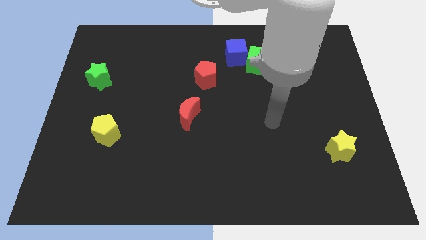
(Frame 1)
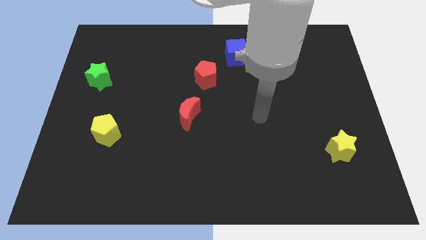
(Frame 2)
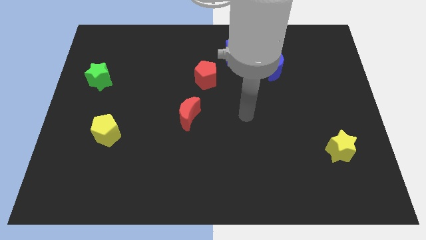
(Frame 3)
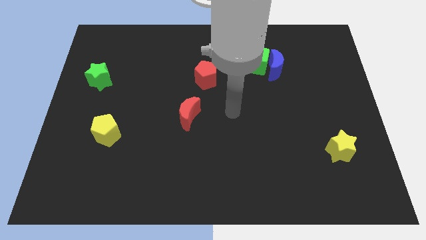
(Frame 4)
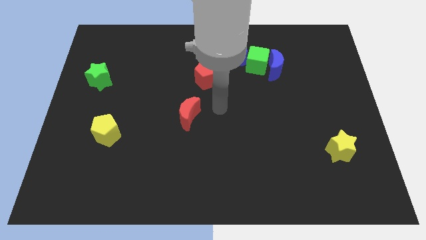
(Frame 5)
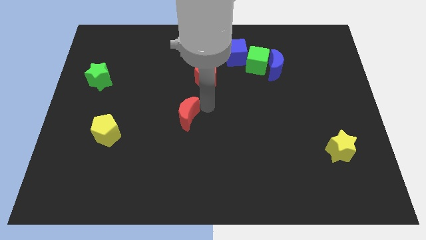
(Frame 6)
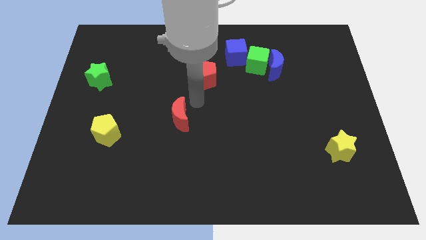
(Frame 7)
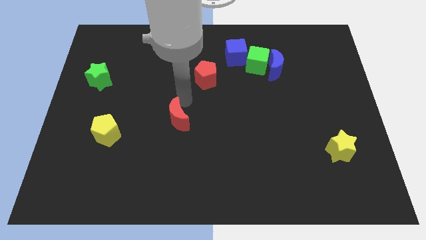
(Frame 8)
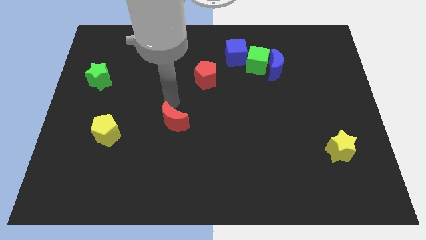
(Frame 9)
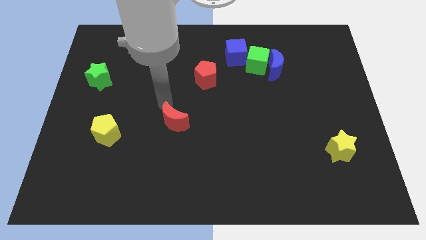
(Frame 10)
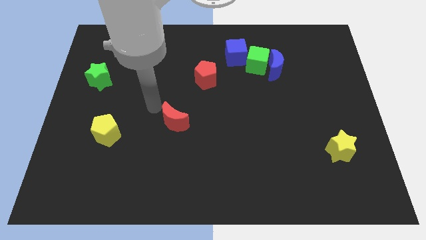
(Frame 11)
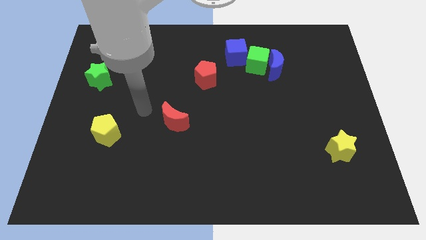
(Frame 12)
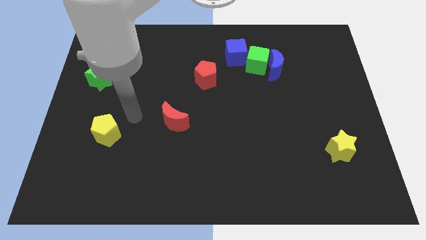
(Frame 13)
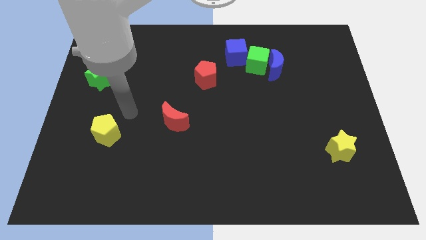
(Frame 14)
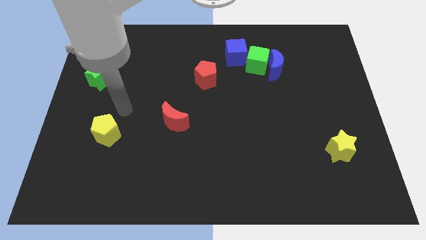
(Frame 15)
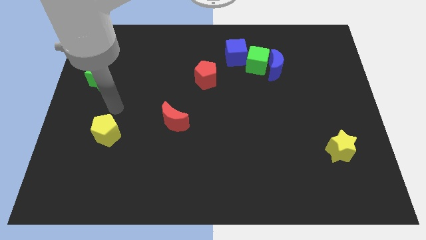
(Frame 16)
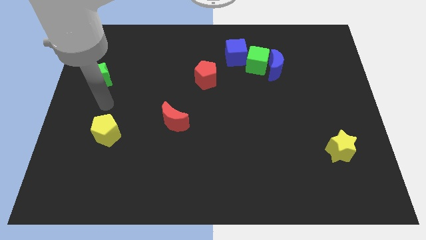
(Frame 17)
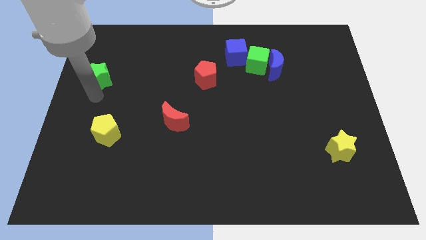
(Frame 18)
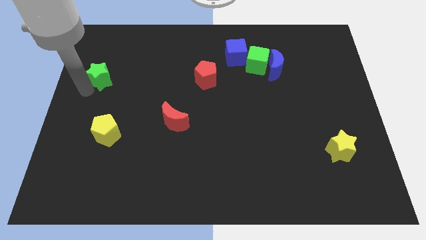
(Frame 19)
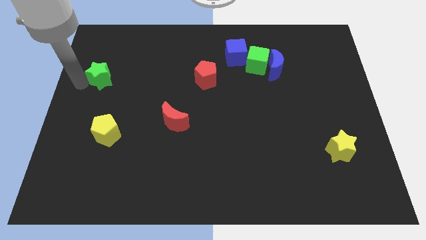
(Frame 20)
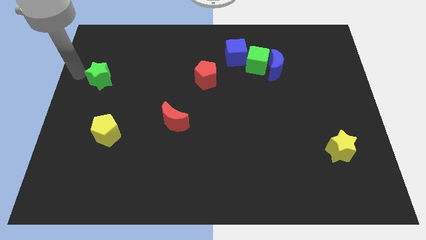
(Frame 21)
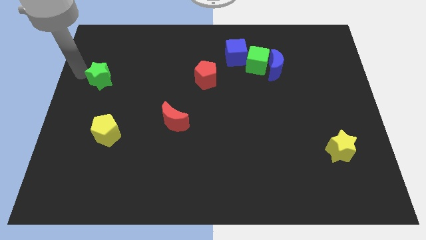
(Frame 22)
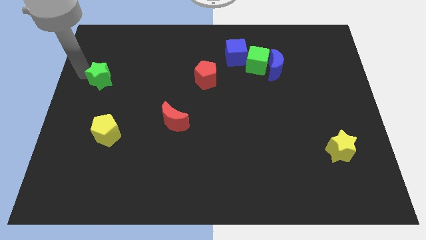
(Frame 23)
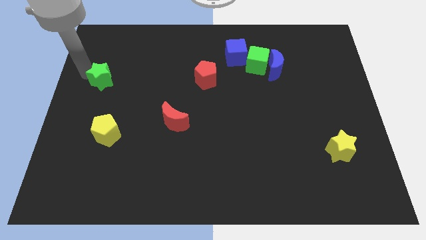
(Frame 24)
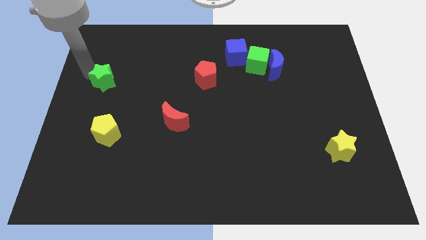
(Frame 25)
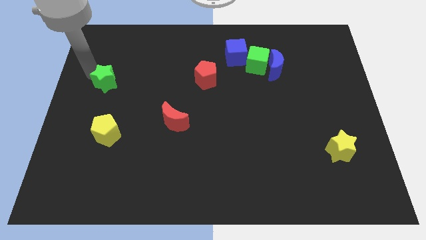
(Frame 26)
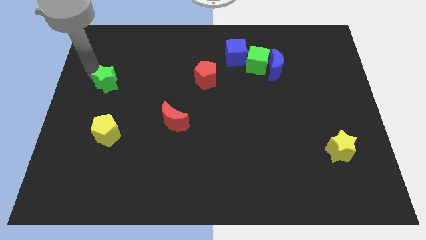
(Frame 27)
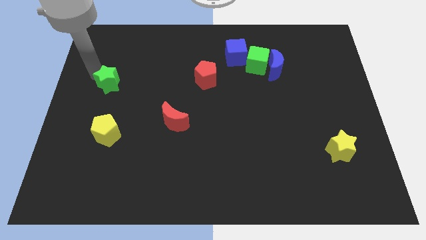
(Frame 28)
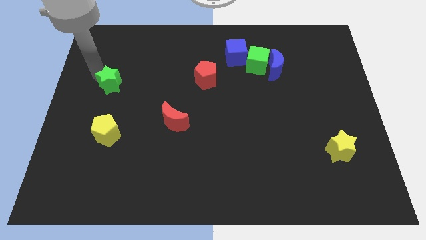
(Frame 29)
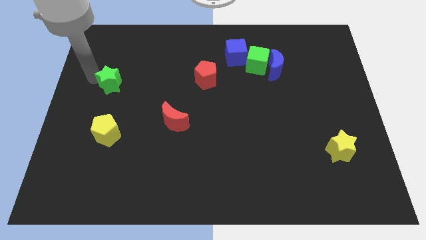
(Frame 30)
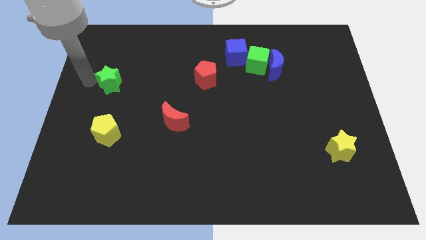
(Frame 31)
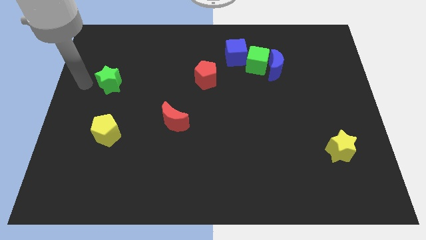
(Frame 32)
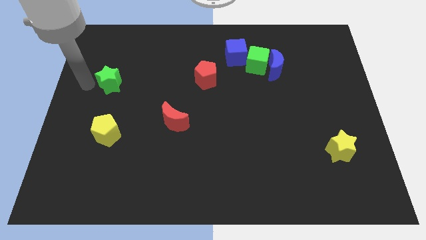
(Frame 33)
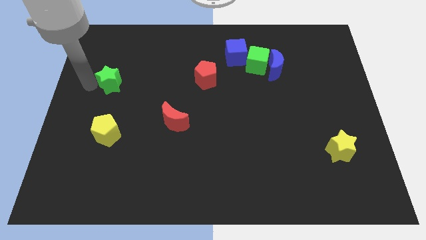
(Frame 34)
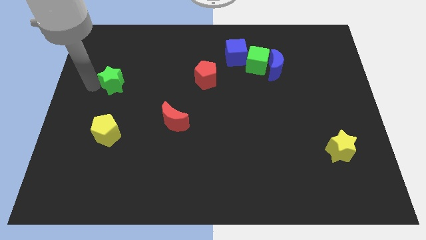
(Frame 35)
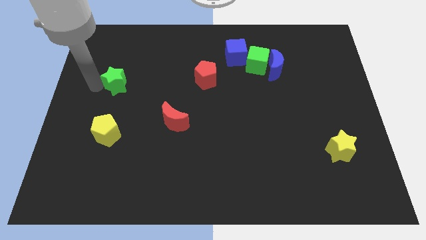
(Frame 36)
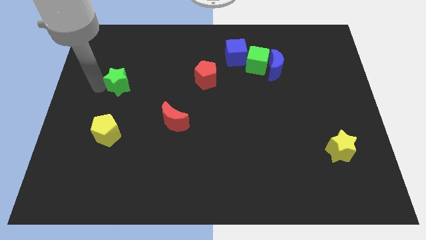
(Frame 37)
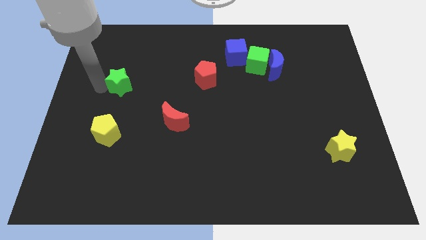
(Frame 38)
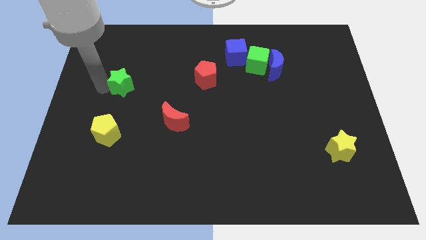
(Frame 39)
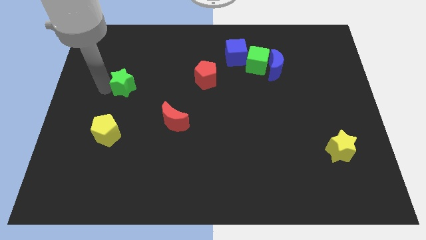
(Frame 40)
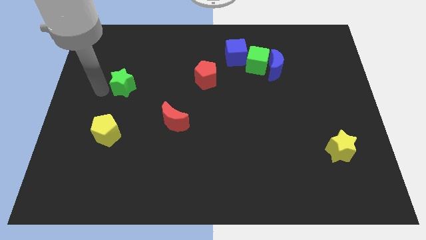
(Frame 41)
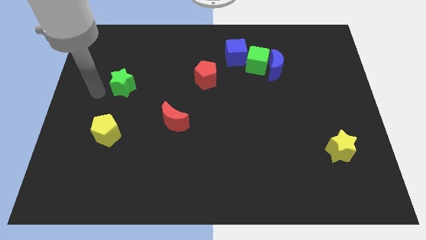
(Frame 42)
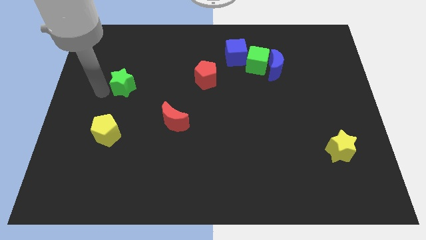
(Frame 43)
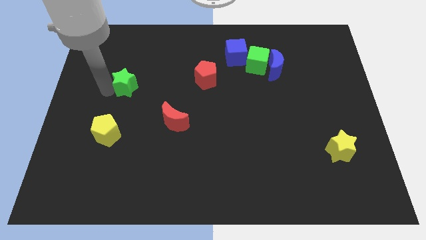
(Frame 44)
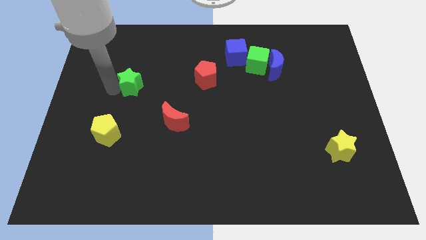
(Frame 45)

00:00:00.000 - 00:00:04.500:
slightly push the green star right

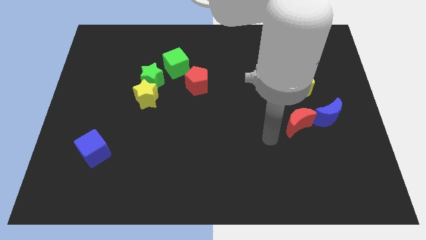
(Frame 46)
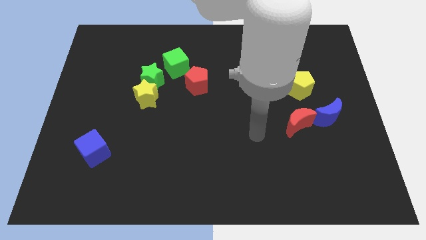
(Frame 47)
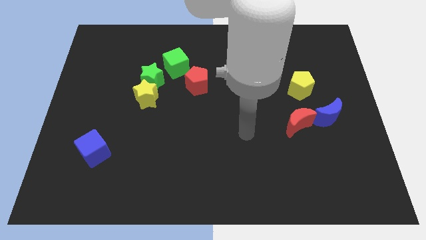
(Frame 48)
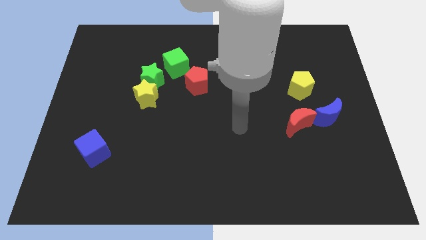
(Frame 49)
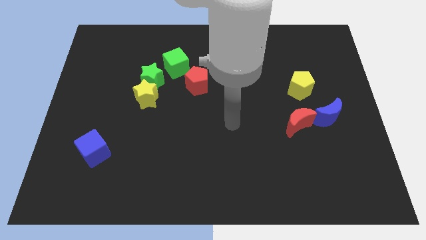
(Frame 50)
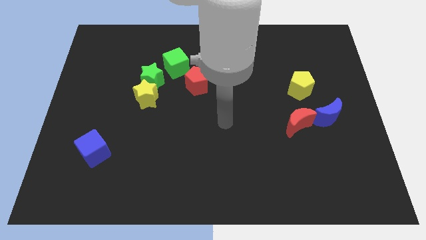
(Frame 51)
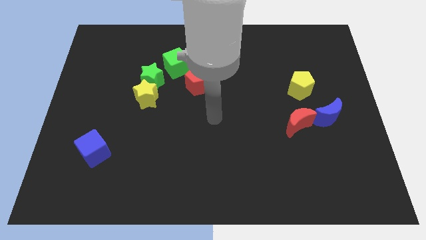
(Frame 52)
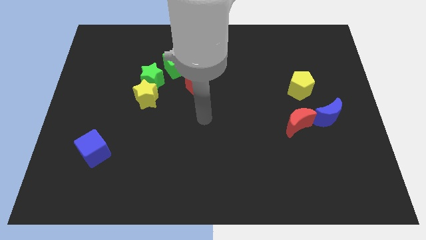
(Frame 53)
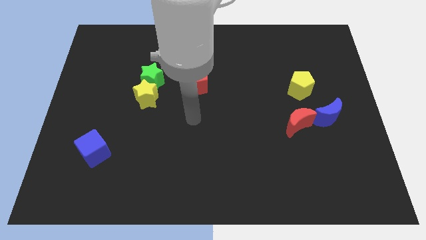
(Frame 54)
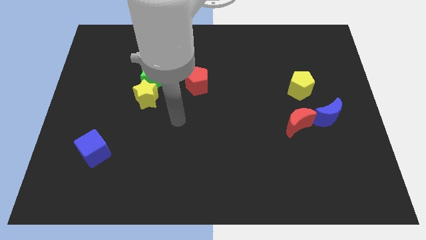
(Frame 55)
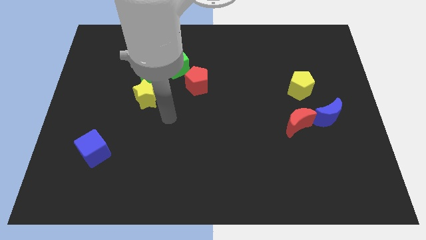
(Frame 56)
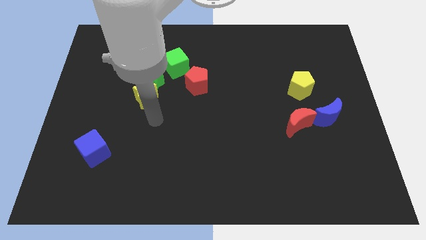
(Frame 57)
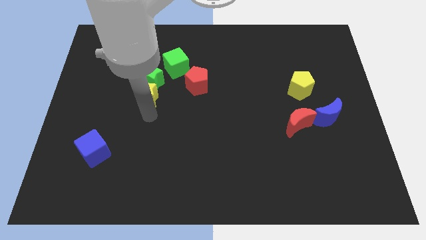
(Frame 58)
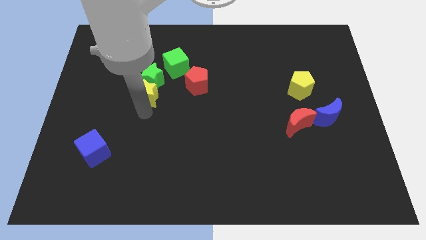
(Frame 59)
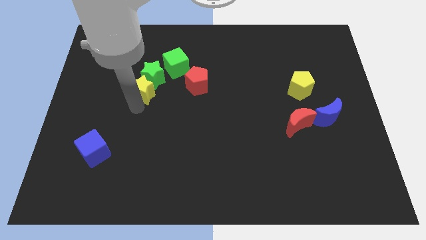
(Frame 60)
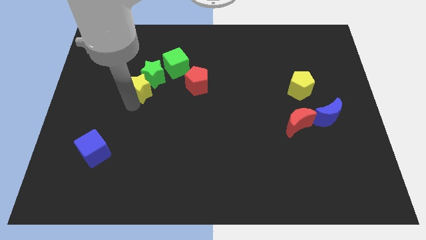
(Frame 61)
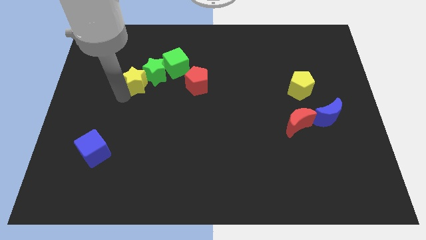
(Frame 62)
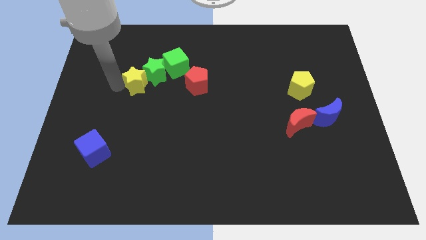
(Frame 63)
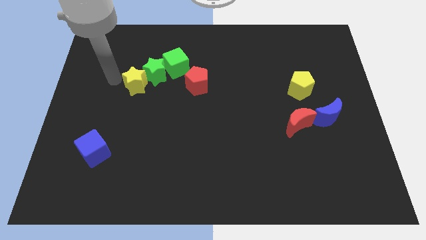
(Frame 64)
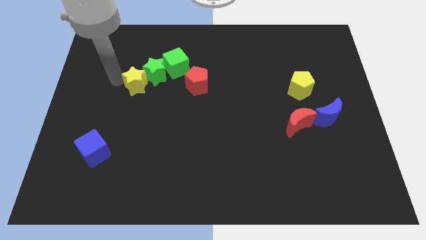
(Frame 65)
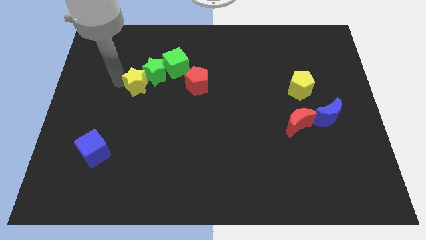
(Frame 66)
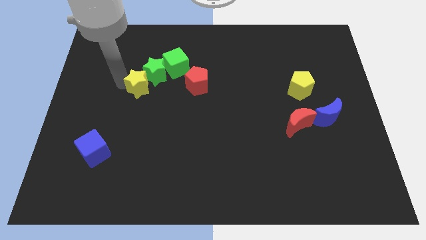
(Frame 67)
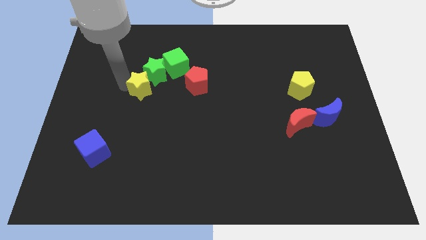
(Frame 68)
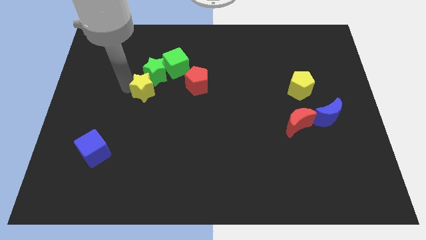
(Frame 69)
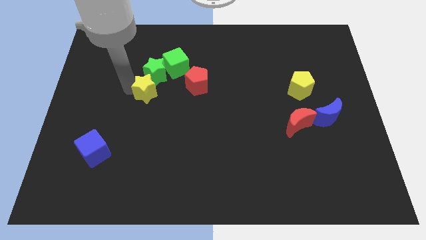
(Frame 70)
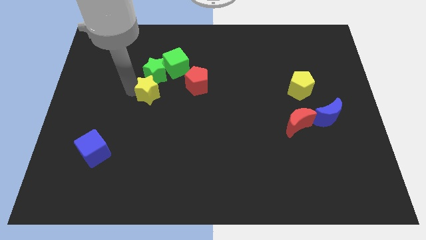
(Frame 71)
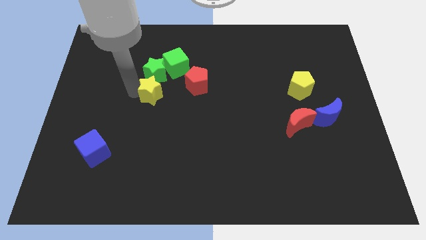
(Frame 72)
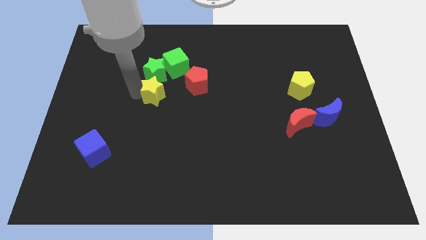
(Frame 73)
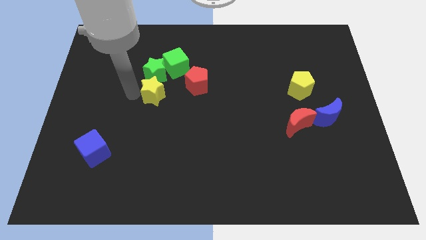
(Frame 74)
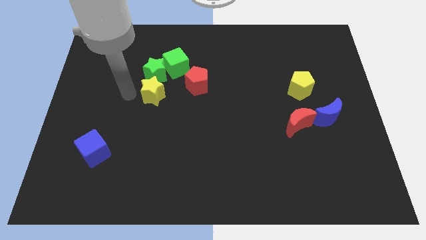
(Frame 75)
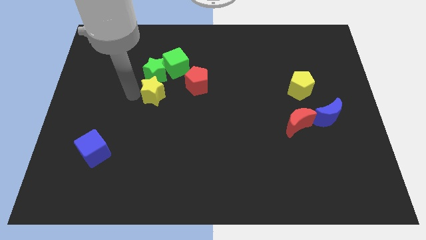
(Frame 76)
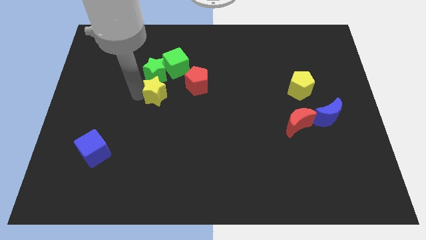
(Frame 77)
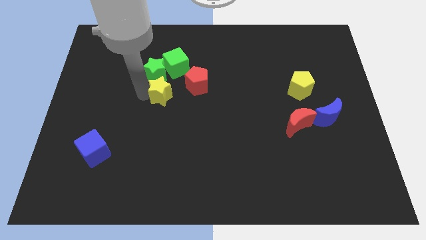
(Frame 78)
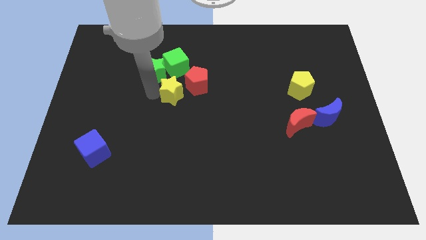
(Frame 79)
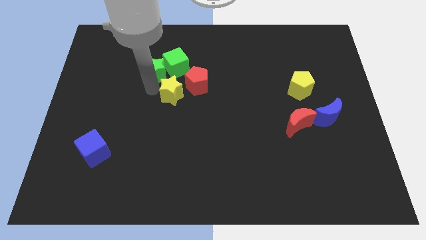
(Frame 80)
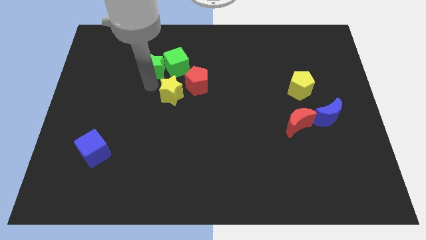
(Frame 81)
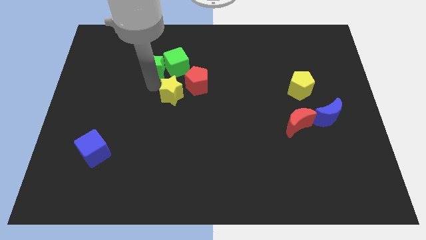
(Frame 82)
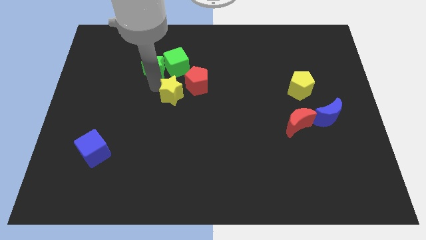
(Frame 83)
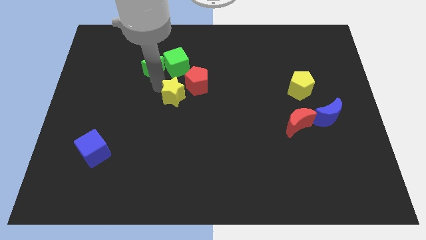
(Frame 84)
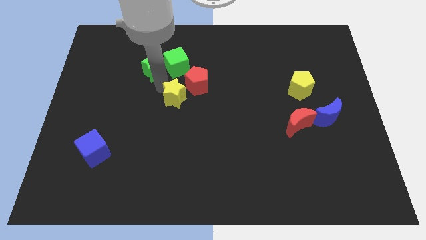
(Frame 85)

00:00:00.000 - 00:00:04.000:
slide the yellow star a little bit right
